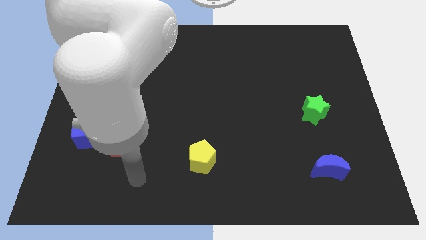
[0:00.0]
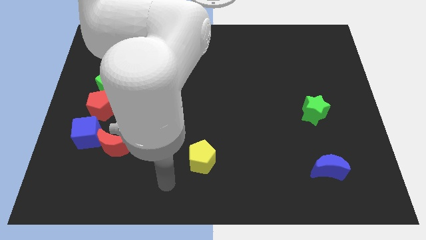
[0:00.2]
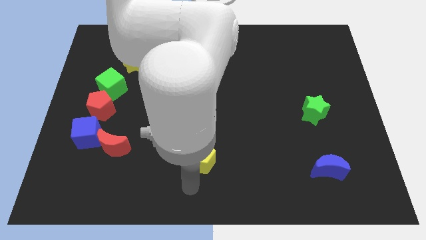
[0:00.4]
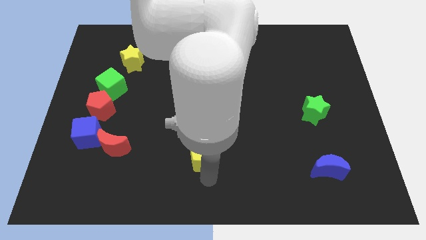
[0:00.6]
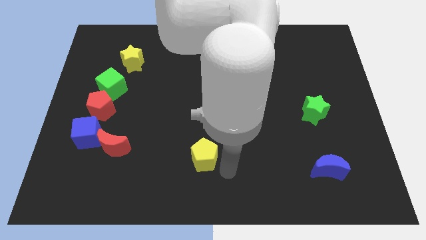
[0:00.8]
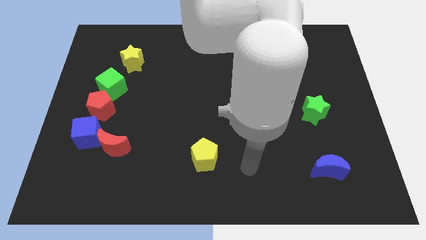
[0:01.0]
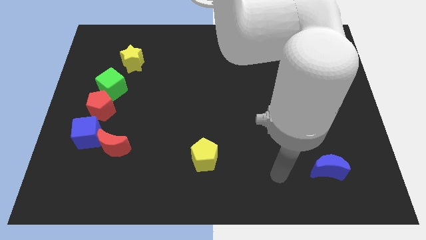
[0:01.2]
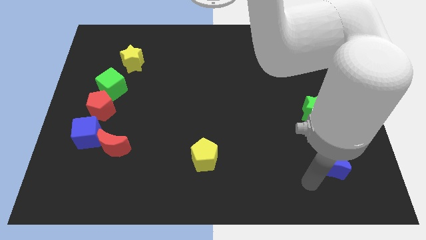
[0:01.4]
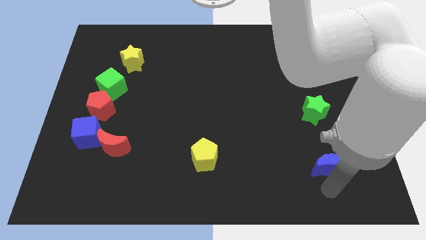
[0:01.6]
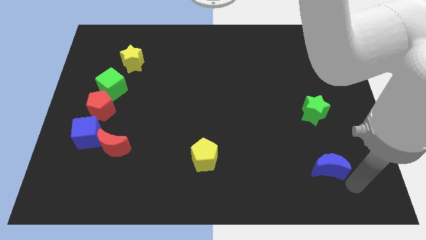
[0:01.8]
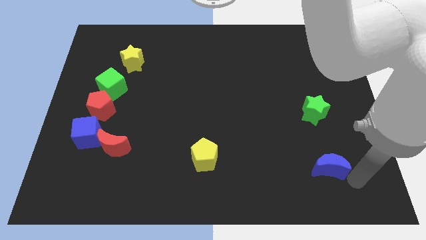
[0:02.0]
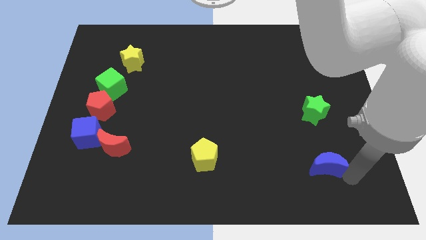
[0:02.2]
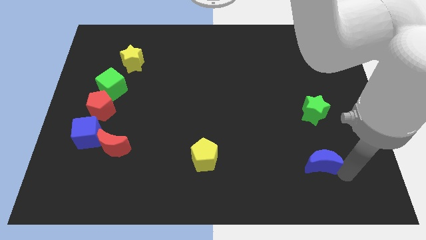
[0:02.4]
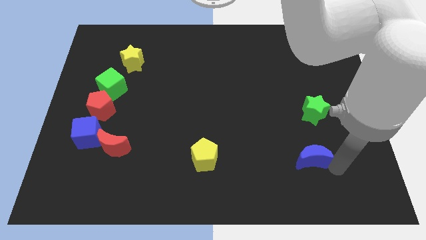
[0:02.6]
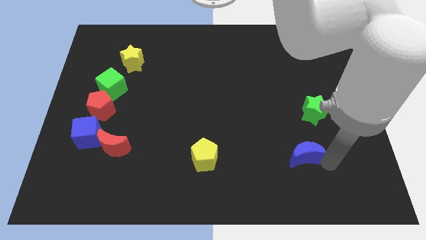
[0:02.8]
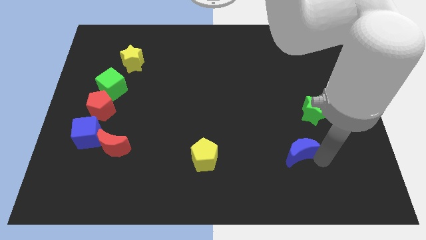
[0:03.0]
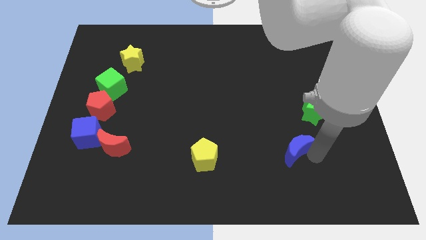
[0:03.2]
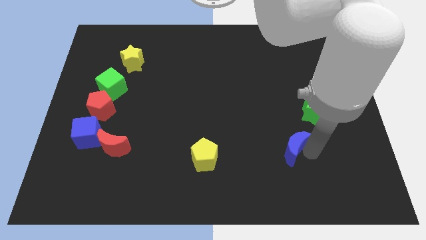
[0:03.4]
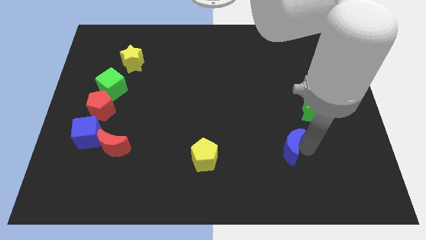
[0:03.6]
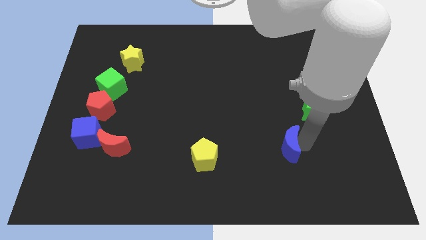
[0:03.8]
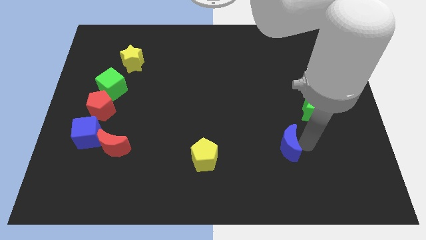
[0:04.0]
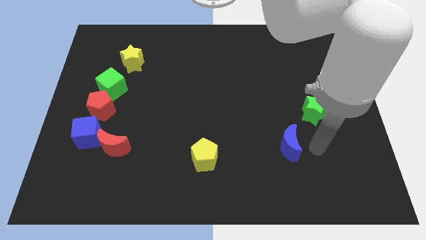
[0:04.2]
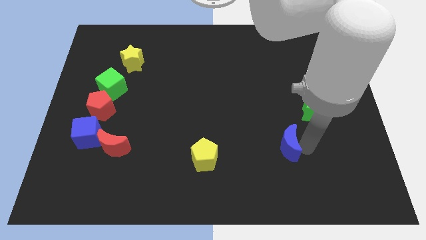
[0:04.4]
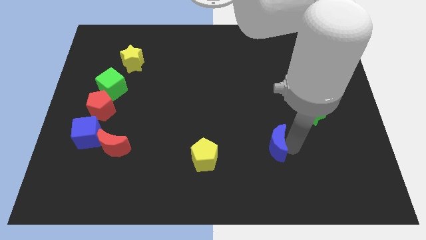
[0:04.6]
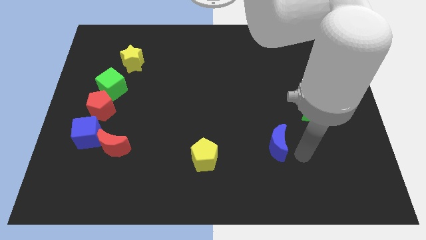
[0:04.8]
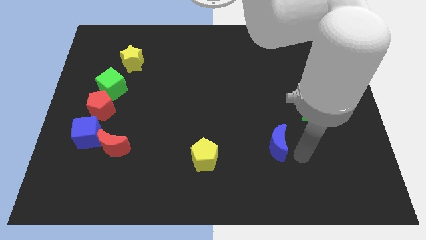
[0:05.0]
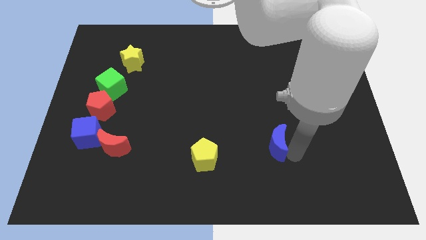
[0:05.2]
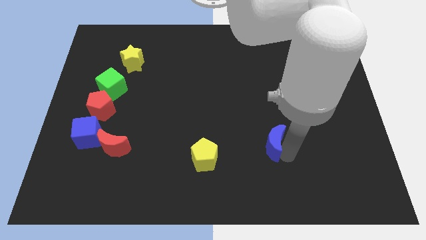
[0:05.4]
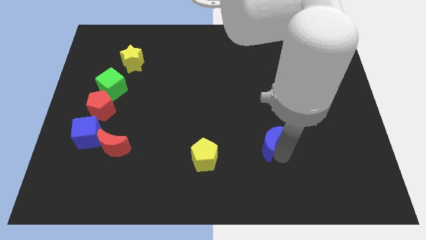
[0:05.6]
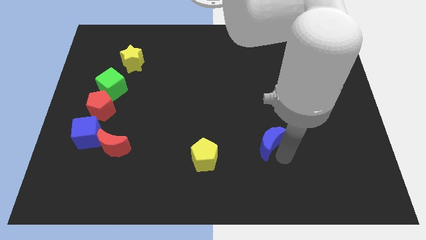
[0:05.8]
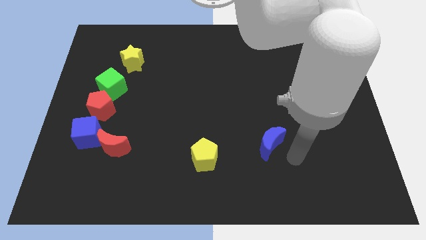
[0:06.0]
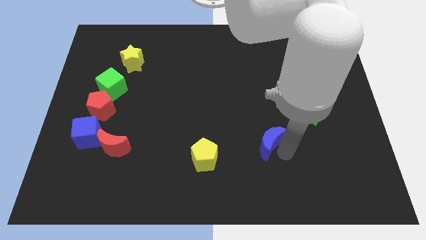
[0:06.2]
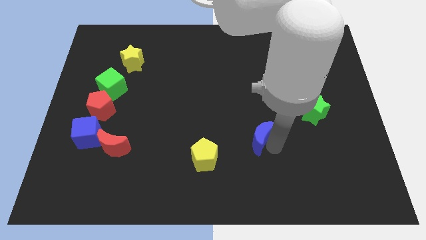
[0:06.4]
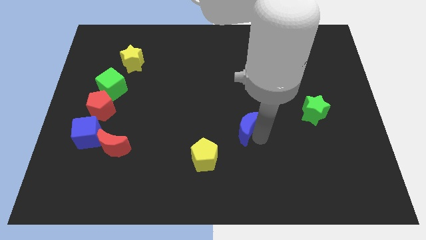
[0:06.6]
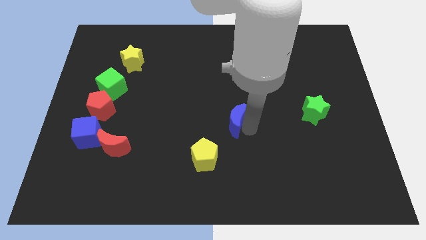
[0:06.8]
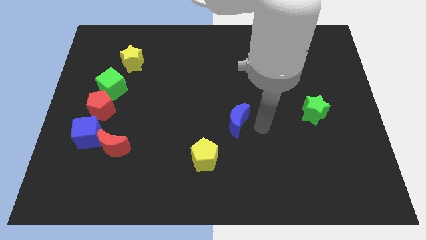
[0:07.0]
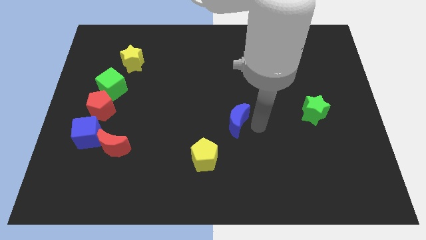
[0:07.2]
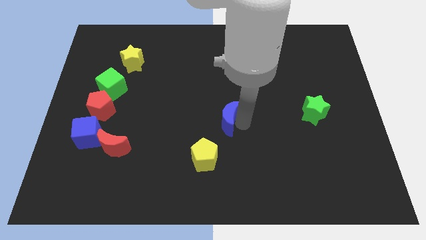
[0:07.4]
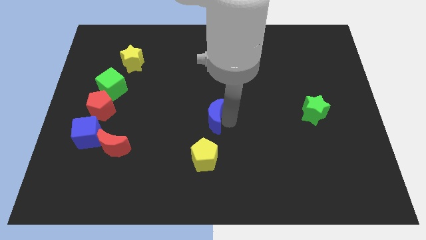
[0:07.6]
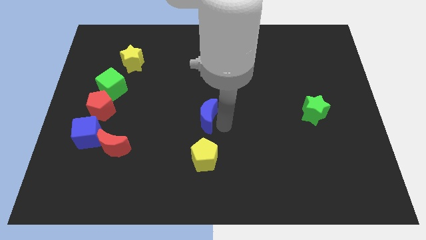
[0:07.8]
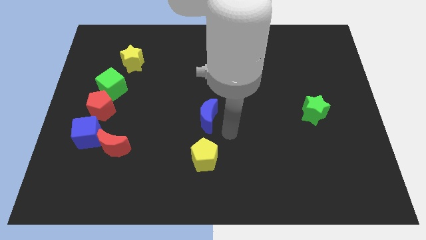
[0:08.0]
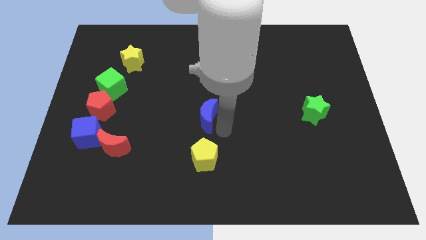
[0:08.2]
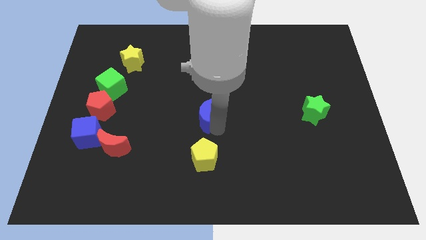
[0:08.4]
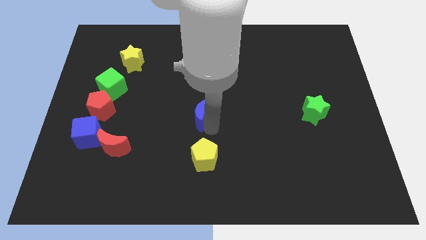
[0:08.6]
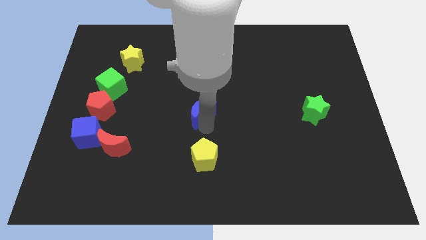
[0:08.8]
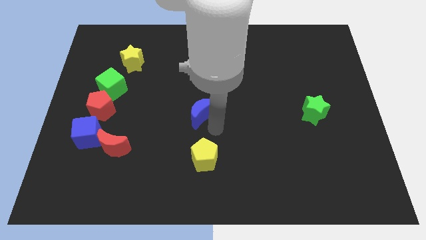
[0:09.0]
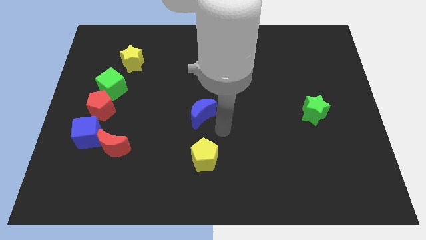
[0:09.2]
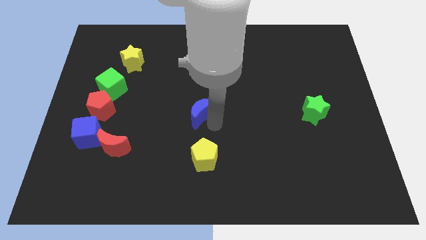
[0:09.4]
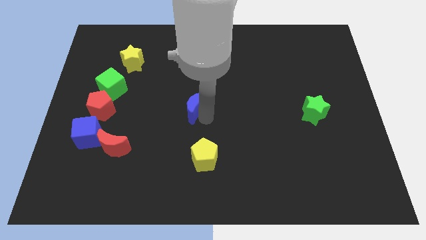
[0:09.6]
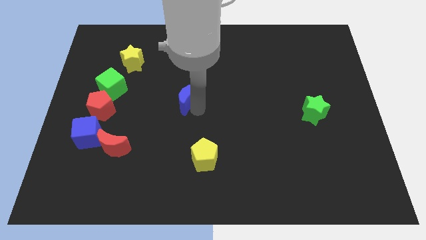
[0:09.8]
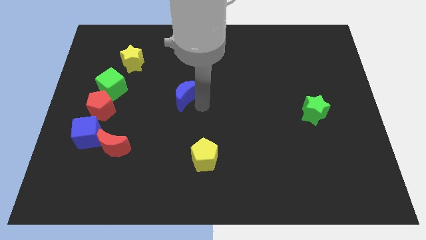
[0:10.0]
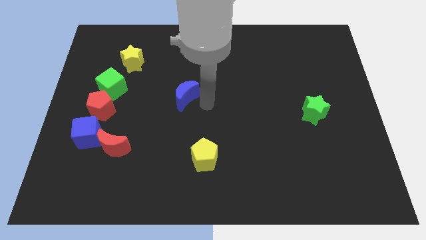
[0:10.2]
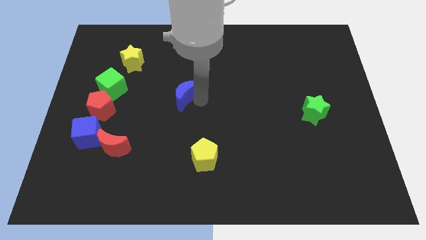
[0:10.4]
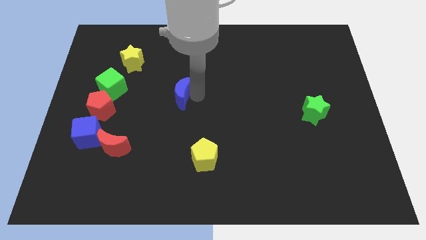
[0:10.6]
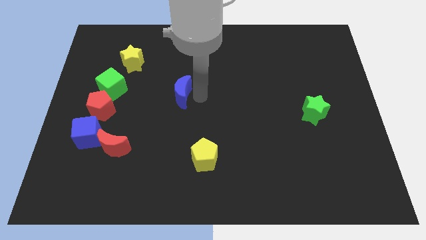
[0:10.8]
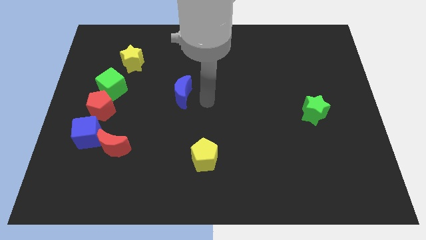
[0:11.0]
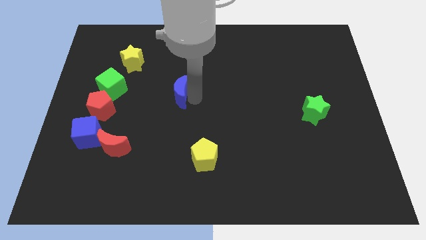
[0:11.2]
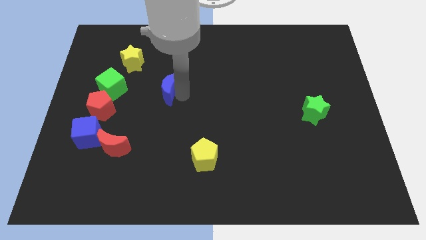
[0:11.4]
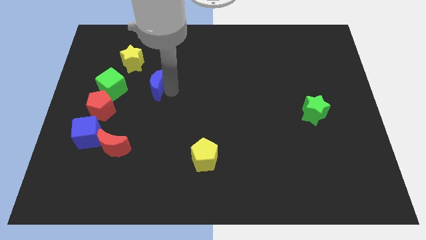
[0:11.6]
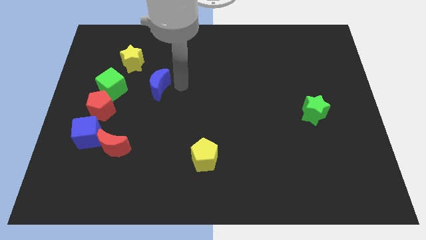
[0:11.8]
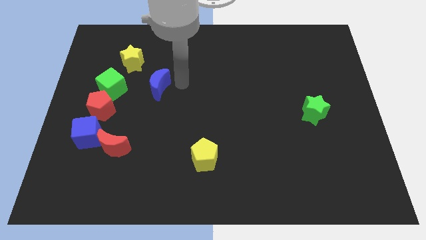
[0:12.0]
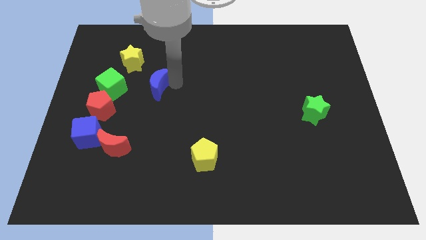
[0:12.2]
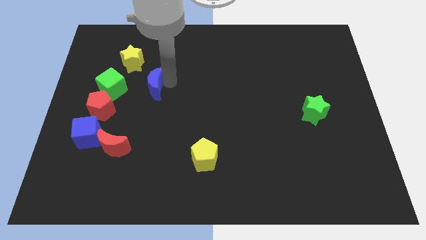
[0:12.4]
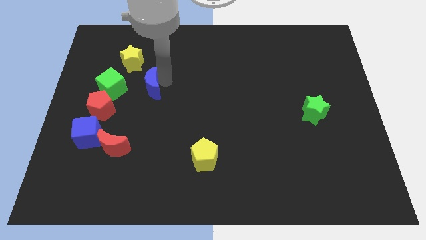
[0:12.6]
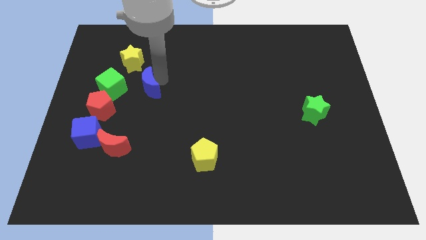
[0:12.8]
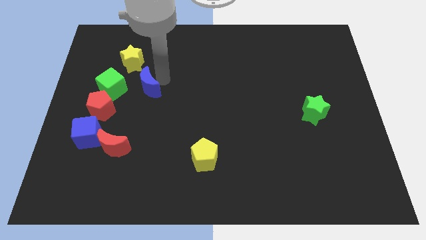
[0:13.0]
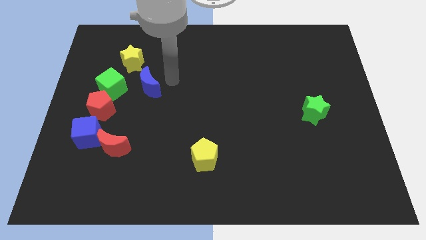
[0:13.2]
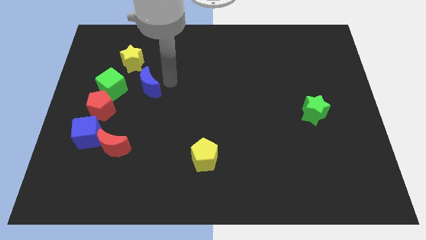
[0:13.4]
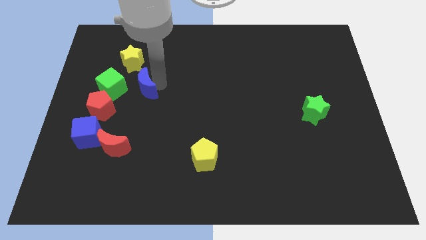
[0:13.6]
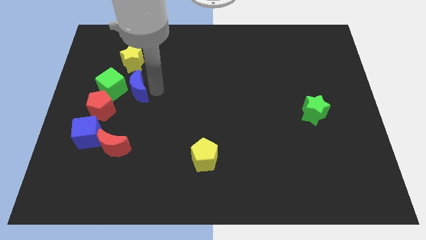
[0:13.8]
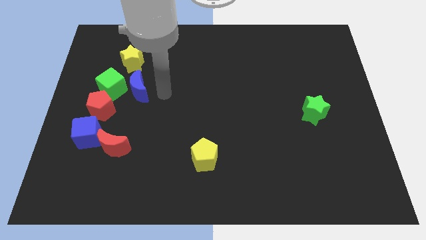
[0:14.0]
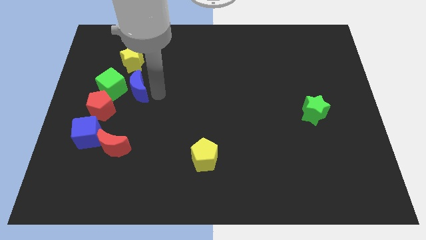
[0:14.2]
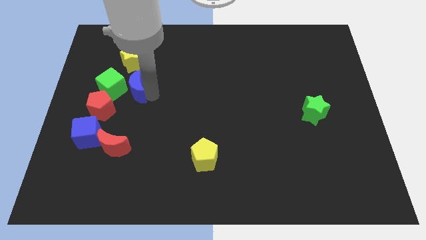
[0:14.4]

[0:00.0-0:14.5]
slide the blue moon to the green cube
